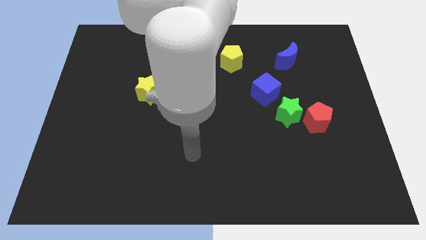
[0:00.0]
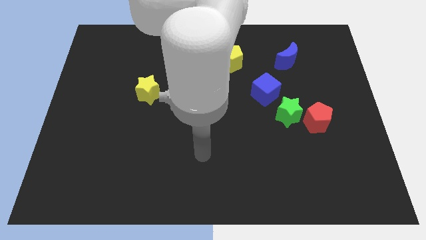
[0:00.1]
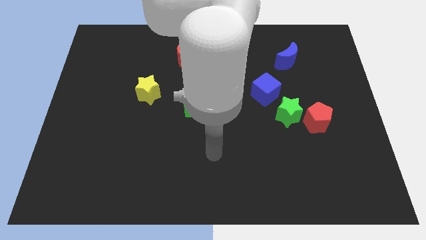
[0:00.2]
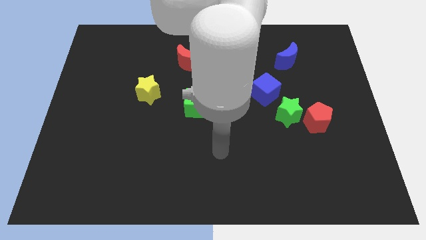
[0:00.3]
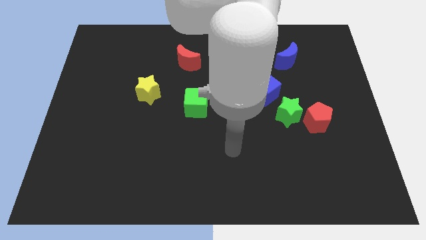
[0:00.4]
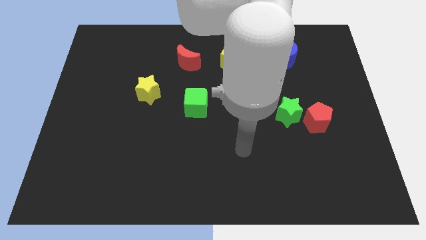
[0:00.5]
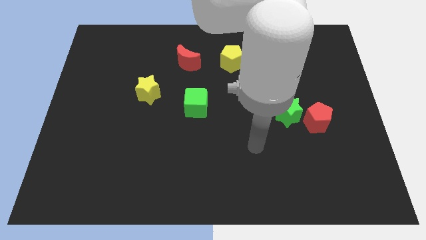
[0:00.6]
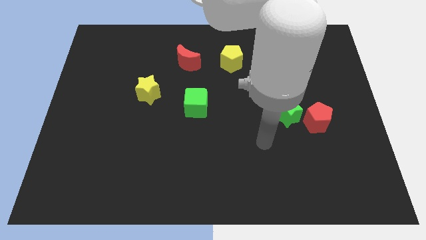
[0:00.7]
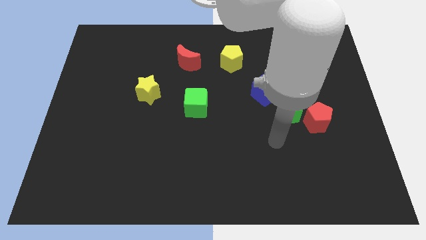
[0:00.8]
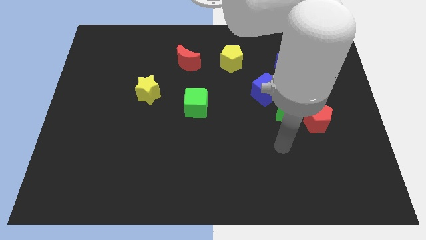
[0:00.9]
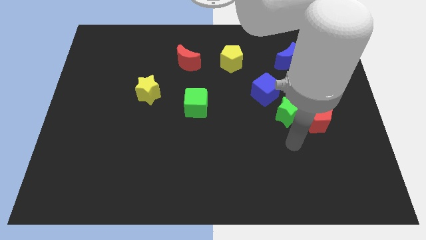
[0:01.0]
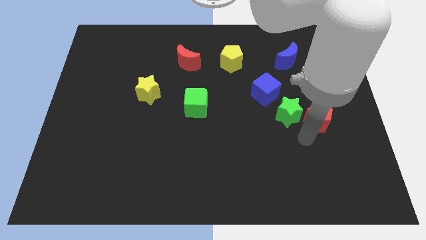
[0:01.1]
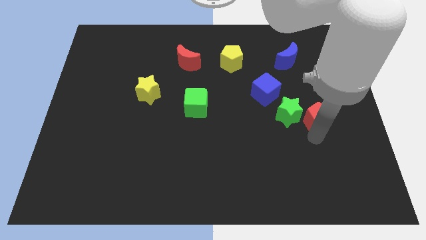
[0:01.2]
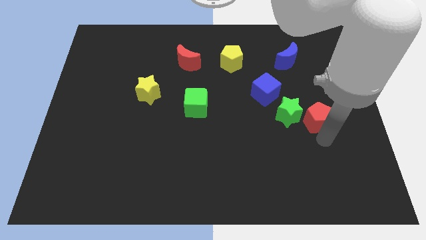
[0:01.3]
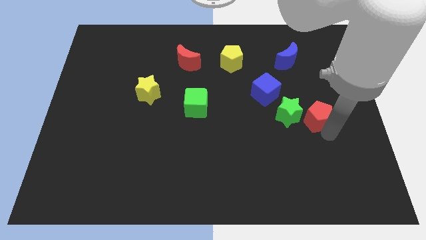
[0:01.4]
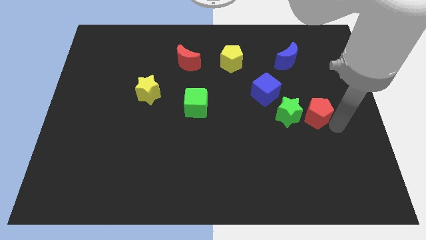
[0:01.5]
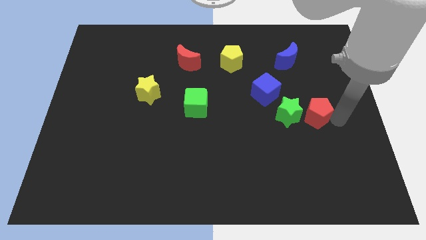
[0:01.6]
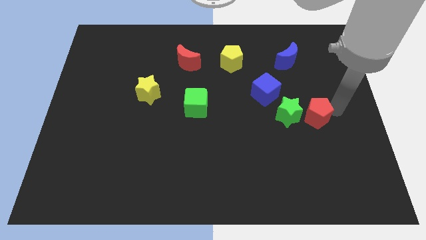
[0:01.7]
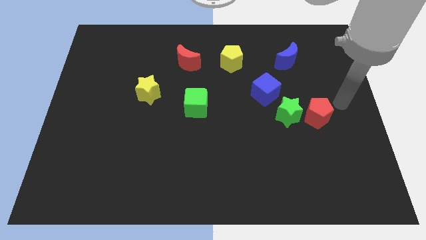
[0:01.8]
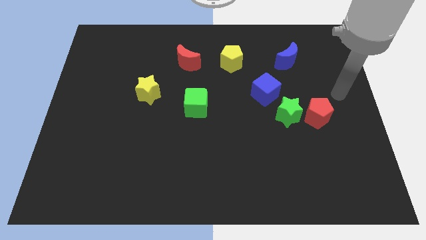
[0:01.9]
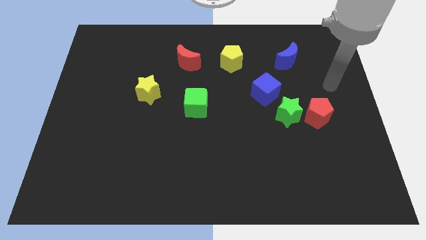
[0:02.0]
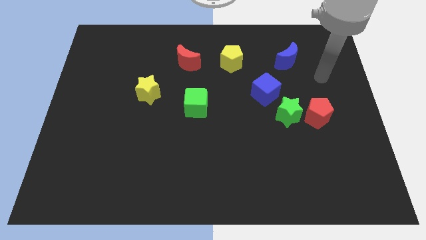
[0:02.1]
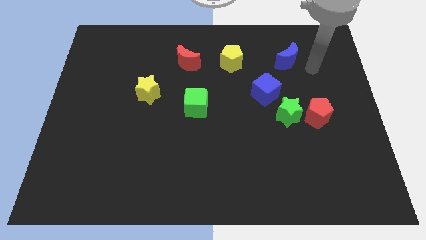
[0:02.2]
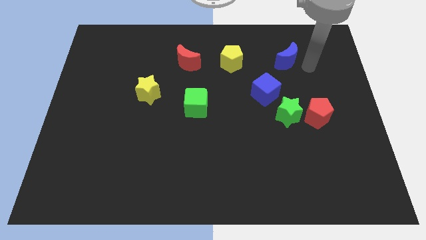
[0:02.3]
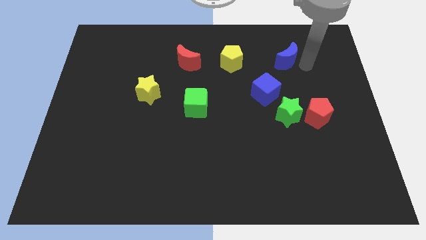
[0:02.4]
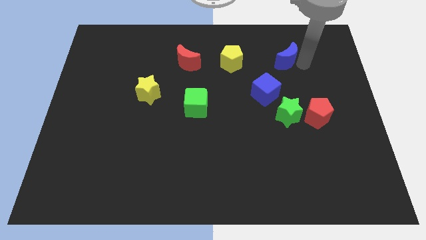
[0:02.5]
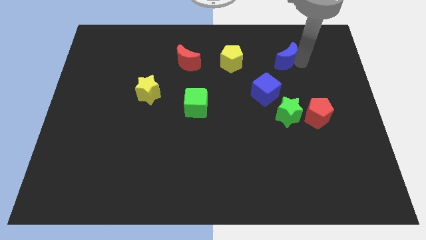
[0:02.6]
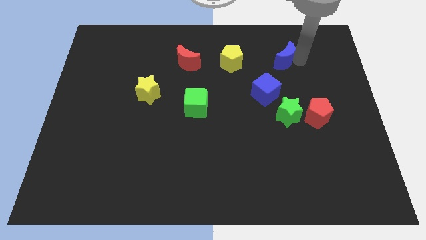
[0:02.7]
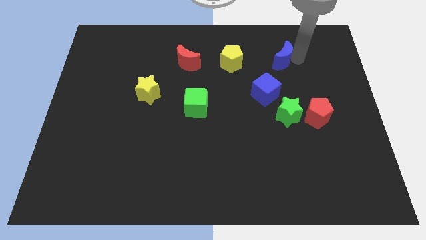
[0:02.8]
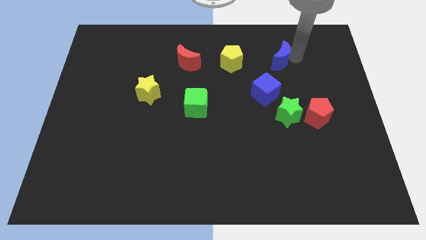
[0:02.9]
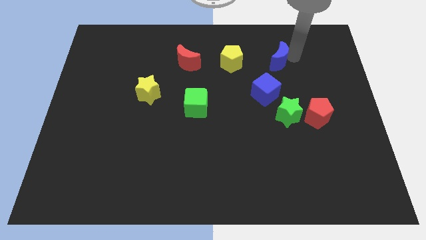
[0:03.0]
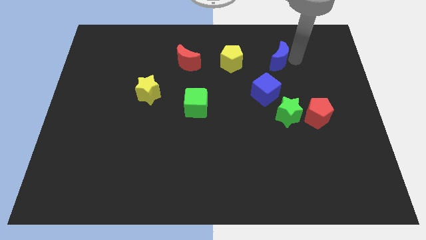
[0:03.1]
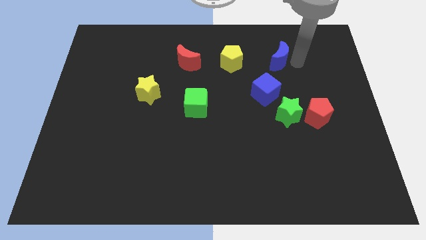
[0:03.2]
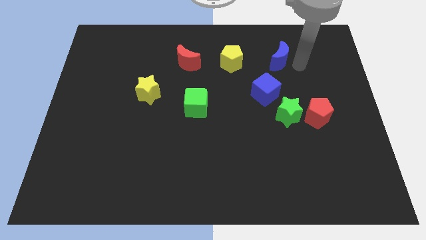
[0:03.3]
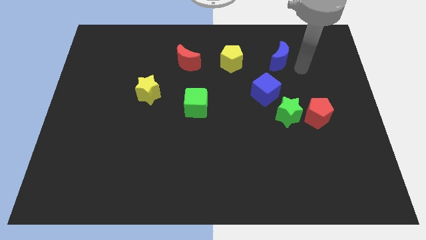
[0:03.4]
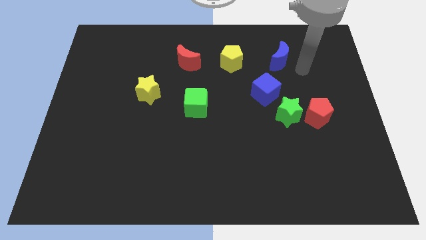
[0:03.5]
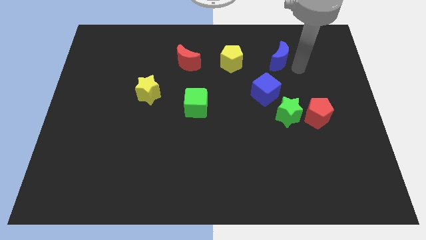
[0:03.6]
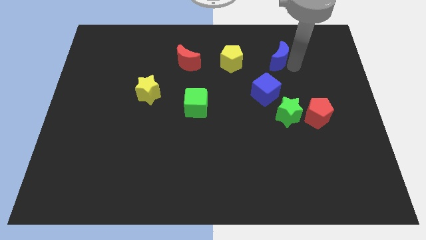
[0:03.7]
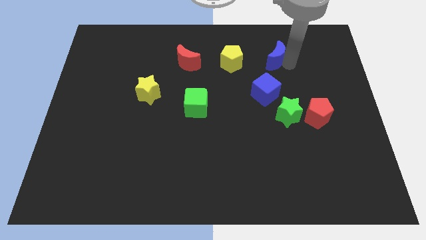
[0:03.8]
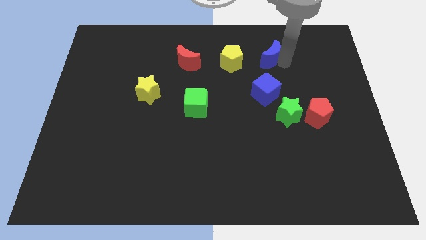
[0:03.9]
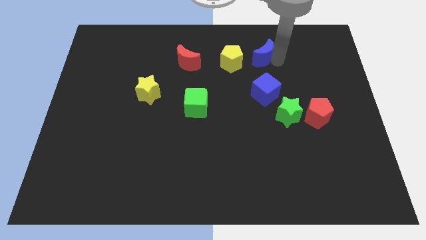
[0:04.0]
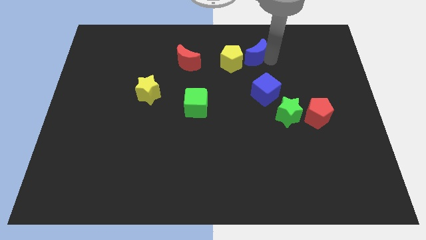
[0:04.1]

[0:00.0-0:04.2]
slightly slide the blue moon to the left

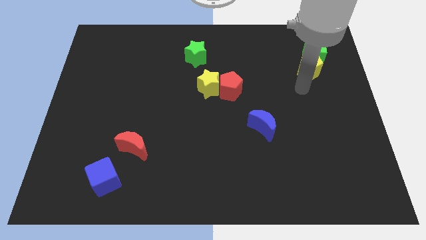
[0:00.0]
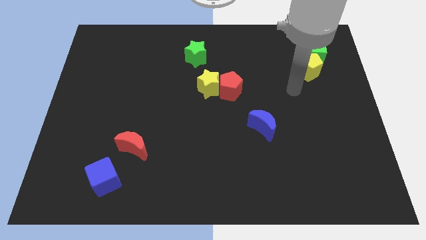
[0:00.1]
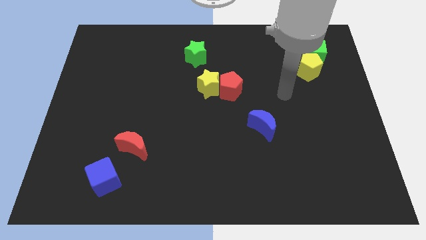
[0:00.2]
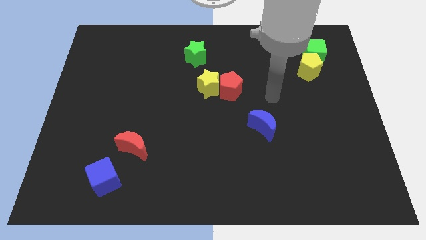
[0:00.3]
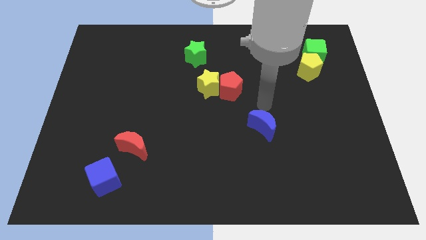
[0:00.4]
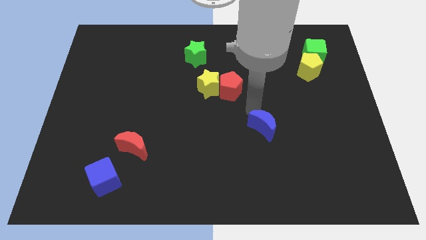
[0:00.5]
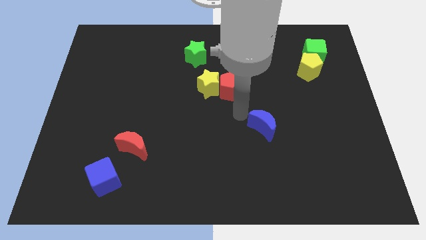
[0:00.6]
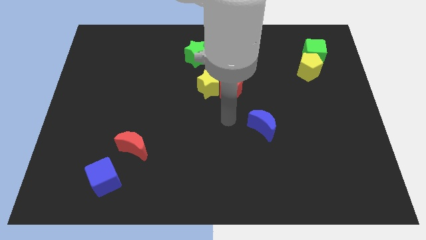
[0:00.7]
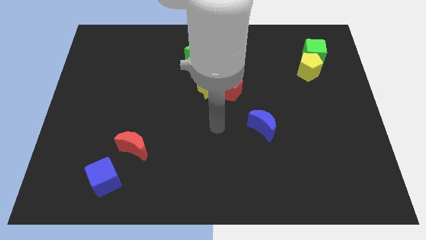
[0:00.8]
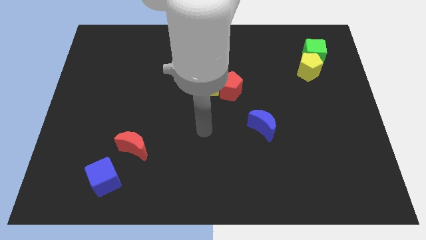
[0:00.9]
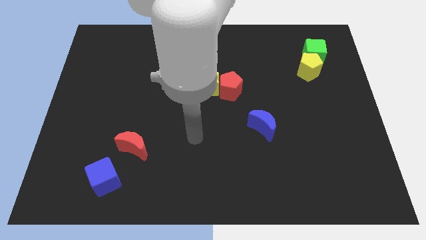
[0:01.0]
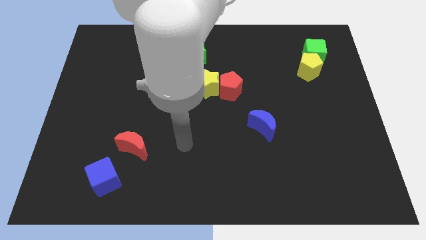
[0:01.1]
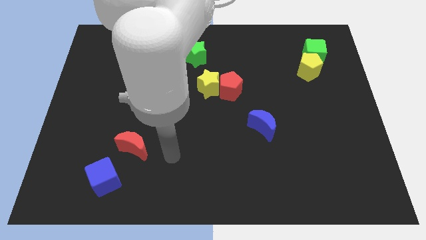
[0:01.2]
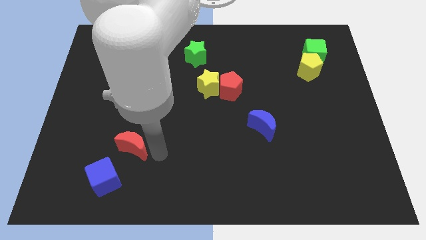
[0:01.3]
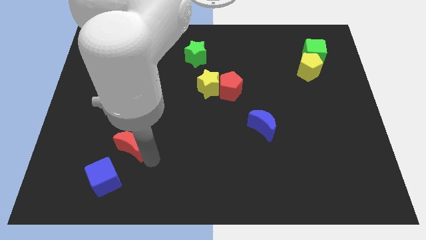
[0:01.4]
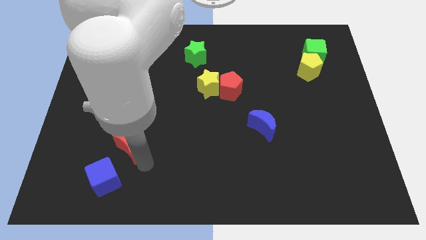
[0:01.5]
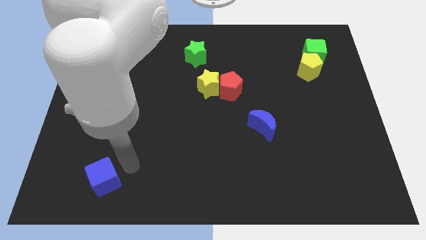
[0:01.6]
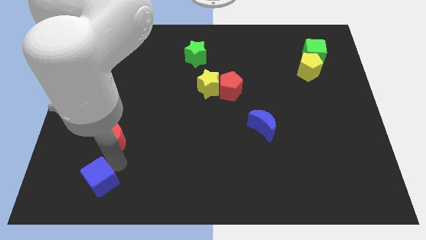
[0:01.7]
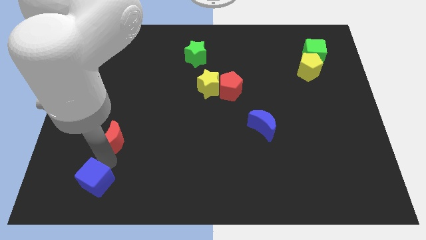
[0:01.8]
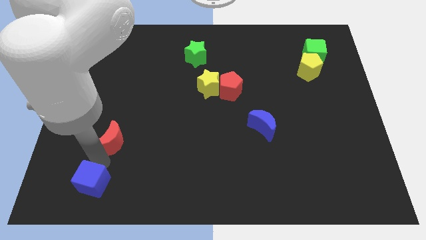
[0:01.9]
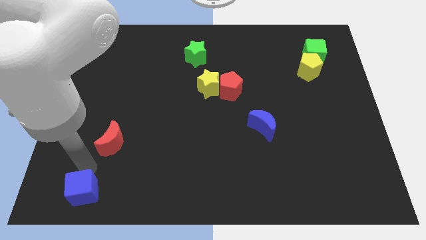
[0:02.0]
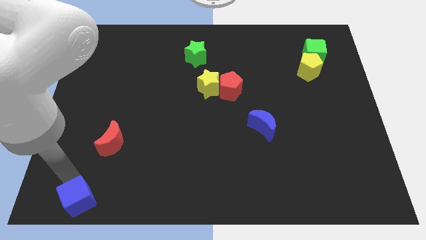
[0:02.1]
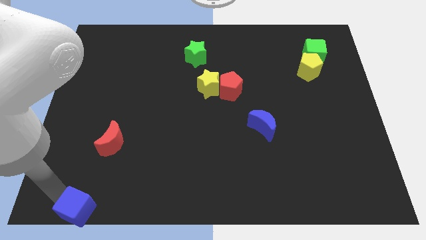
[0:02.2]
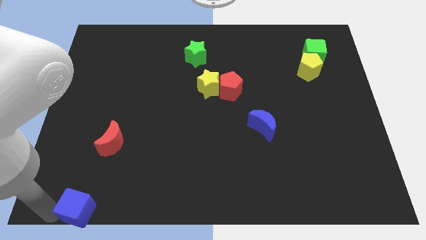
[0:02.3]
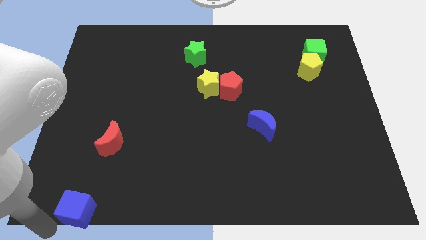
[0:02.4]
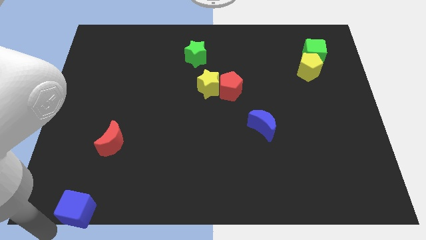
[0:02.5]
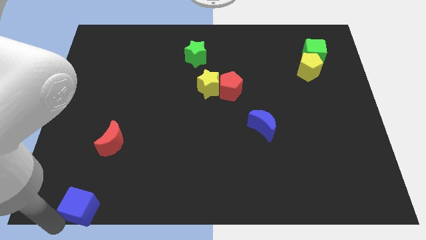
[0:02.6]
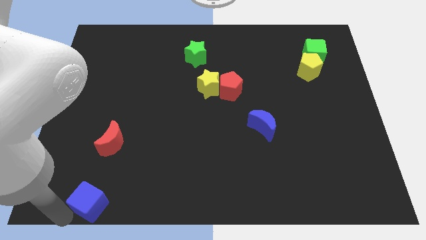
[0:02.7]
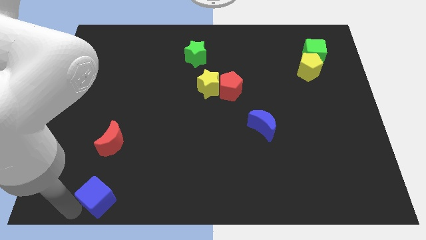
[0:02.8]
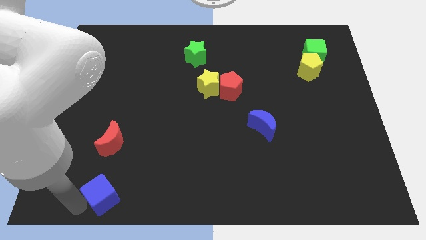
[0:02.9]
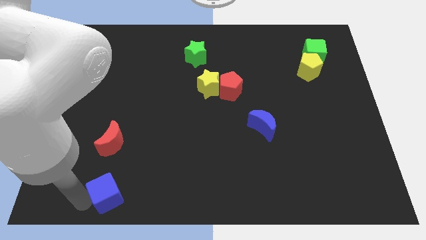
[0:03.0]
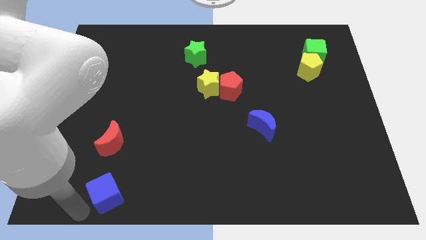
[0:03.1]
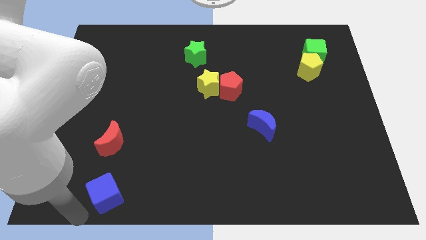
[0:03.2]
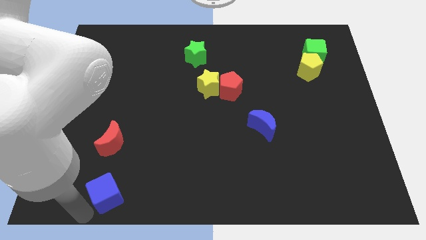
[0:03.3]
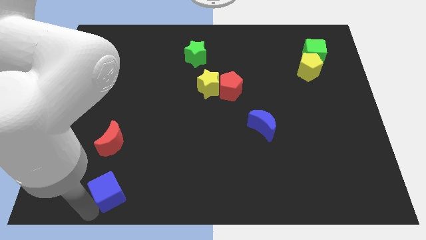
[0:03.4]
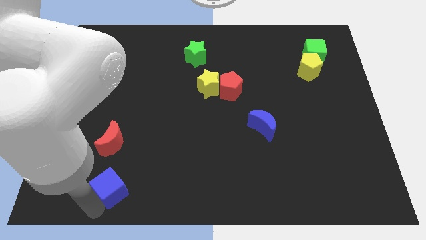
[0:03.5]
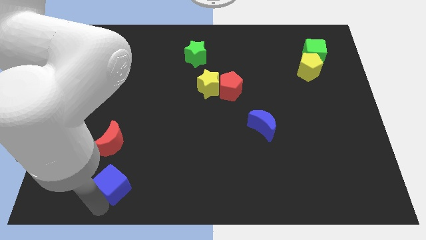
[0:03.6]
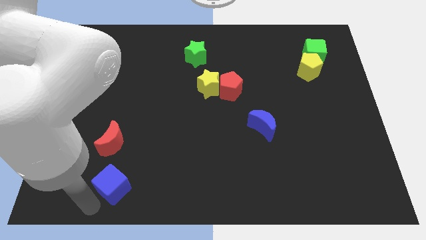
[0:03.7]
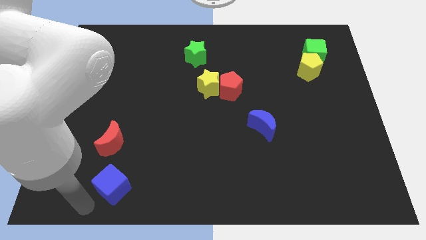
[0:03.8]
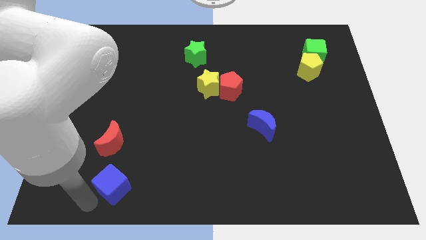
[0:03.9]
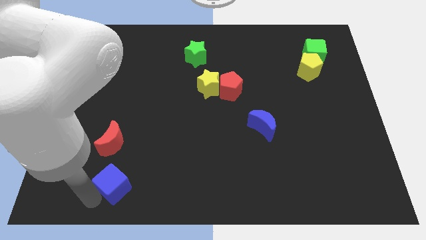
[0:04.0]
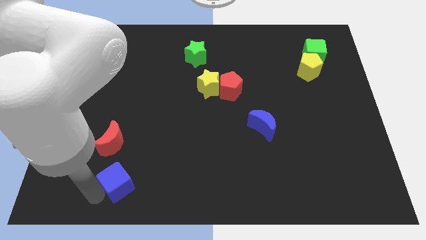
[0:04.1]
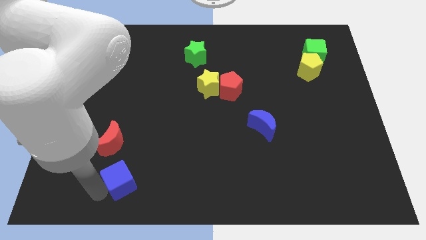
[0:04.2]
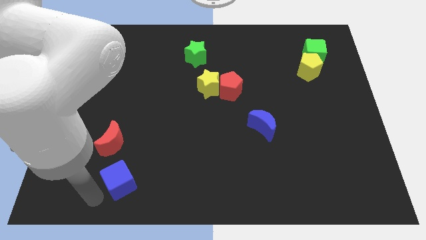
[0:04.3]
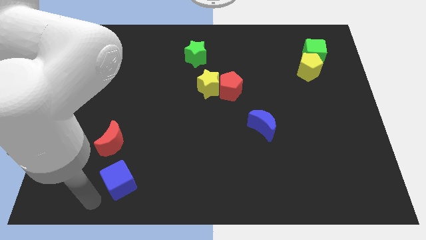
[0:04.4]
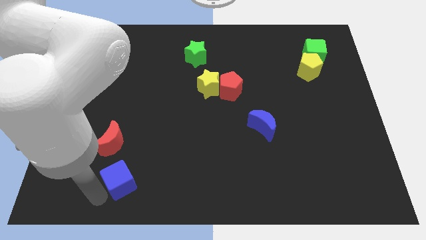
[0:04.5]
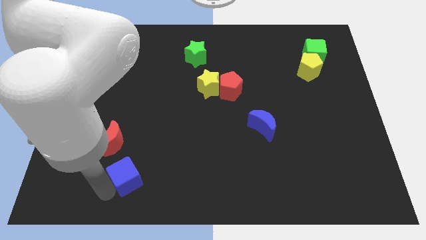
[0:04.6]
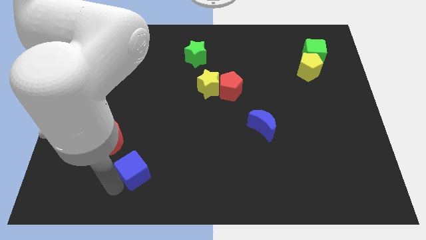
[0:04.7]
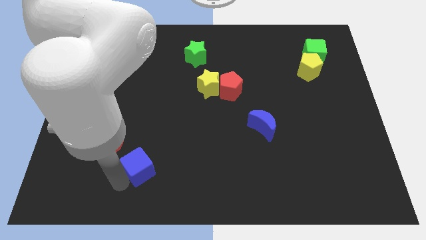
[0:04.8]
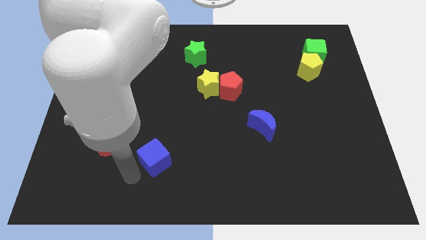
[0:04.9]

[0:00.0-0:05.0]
move the blue cube upwards and to the right diagonally a bit
